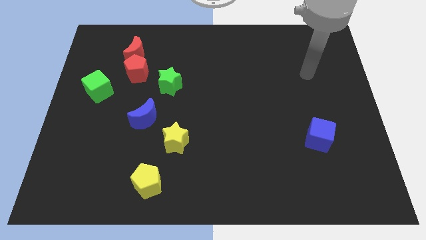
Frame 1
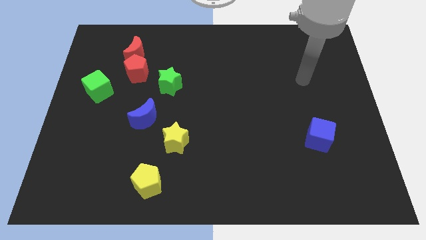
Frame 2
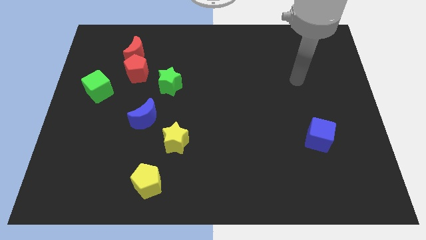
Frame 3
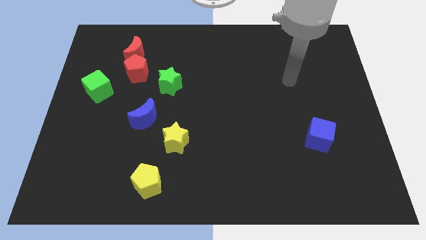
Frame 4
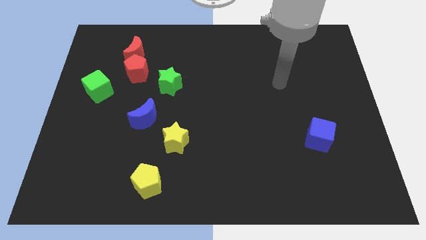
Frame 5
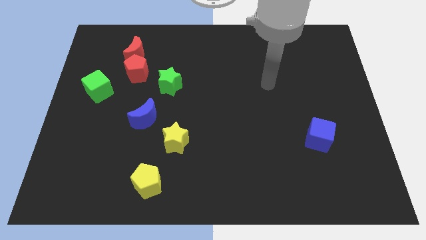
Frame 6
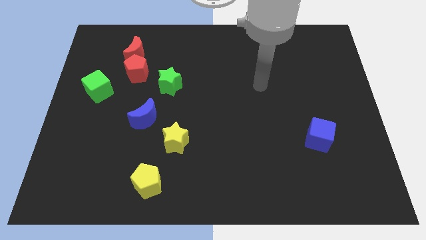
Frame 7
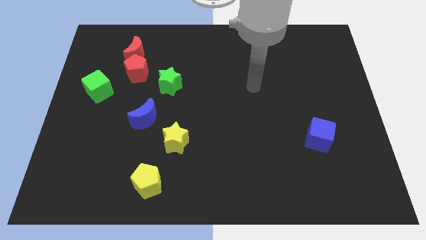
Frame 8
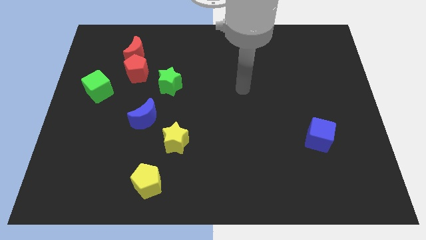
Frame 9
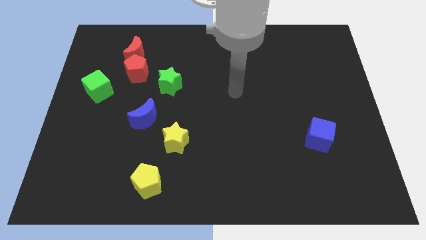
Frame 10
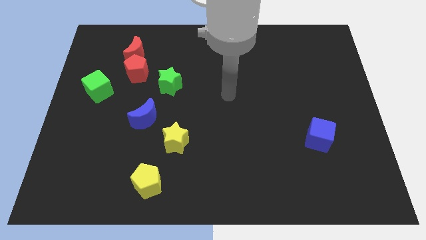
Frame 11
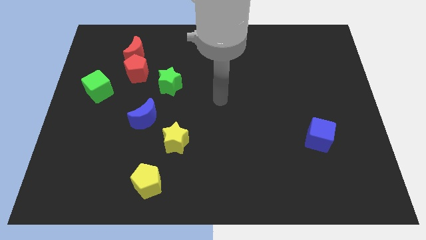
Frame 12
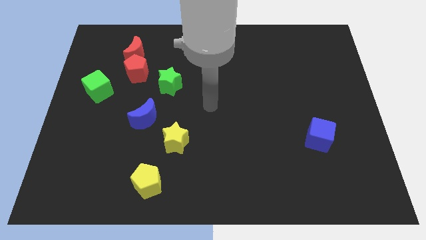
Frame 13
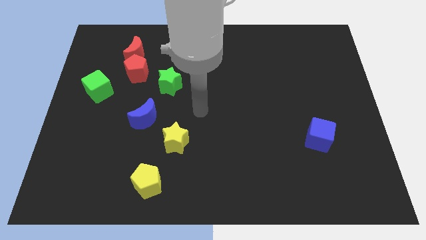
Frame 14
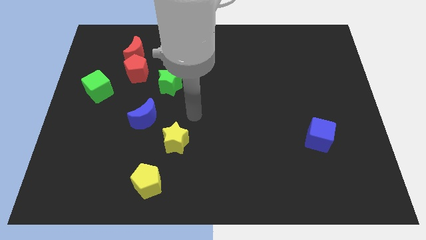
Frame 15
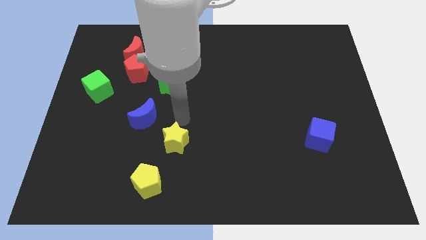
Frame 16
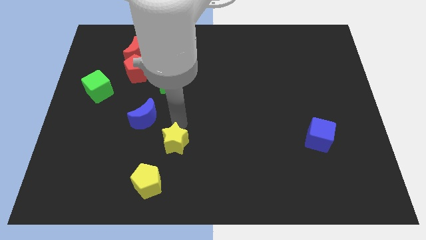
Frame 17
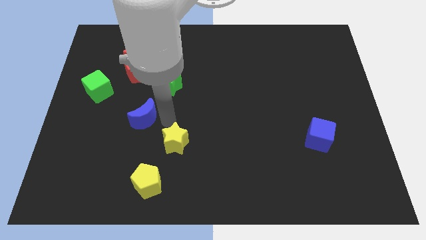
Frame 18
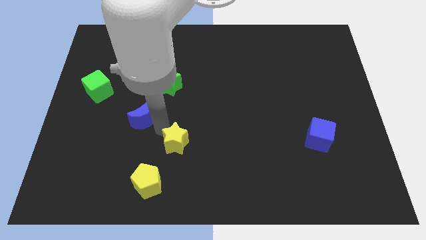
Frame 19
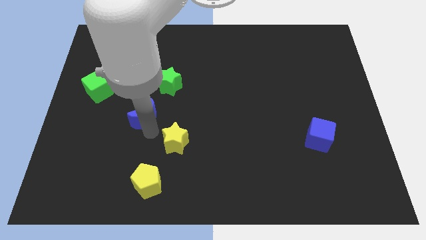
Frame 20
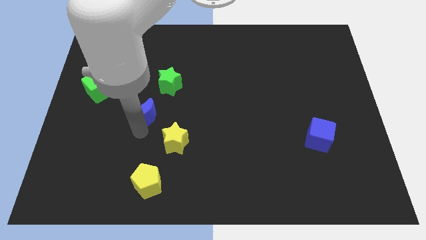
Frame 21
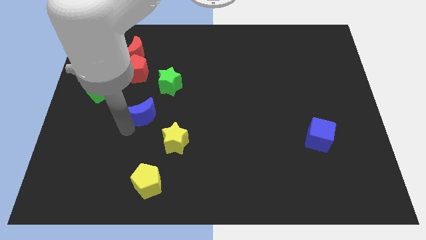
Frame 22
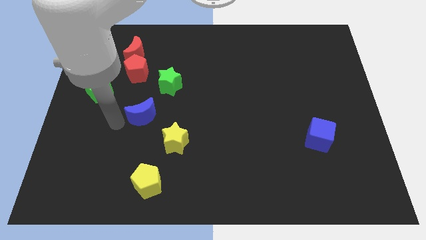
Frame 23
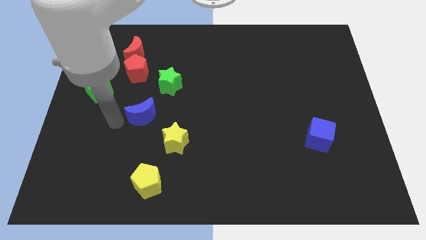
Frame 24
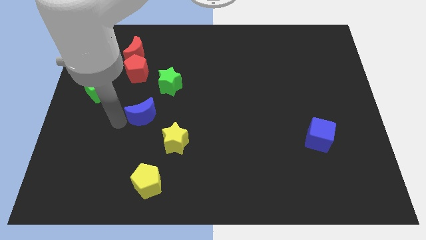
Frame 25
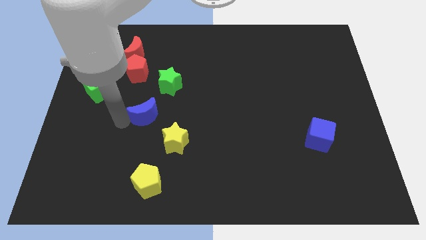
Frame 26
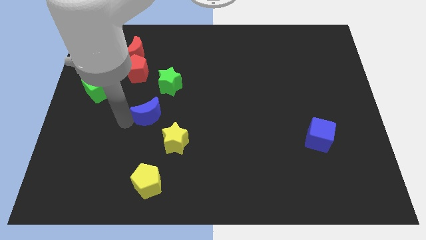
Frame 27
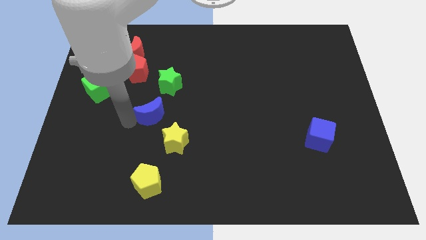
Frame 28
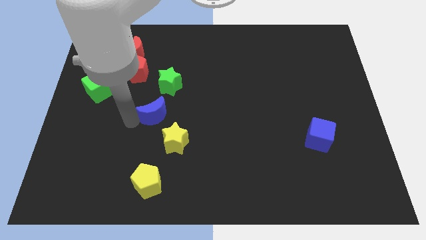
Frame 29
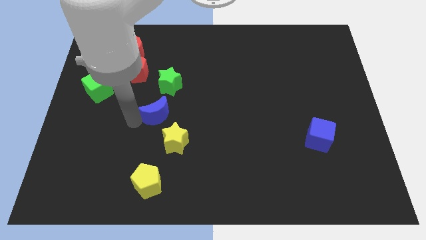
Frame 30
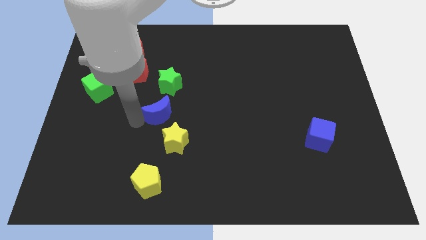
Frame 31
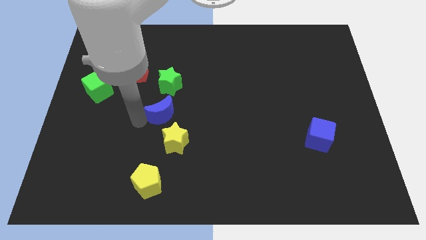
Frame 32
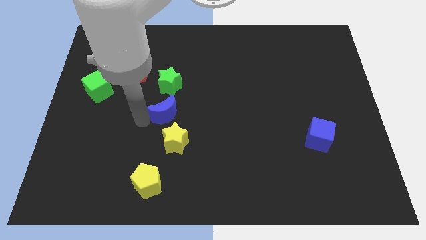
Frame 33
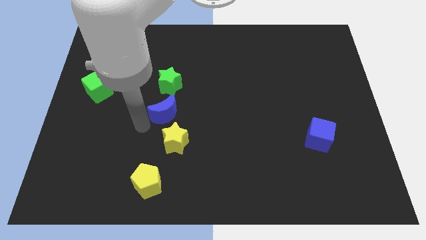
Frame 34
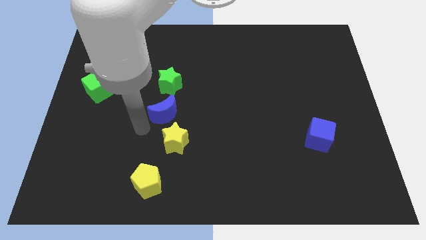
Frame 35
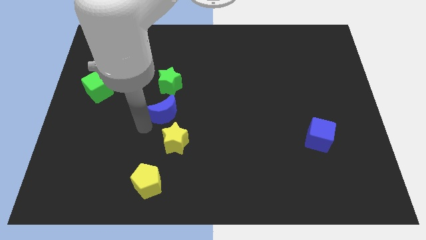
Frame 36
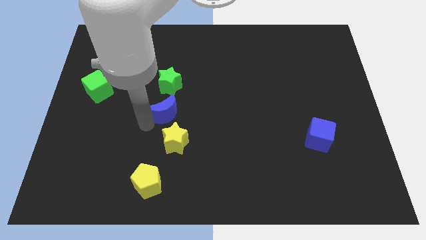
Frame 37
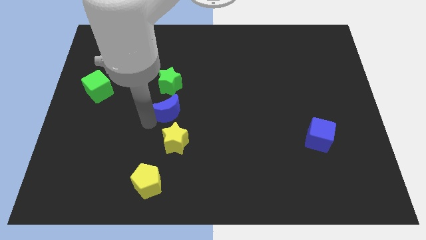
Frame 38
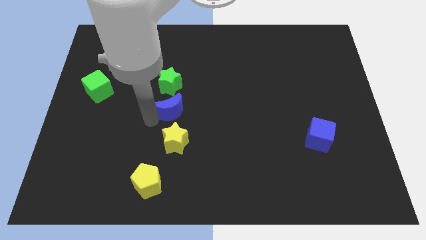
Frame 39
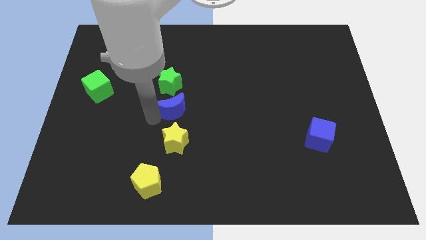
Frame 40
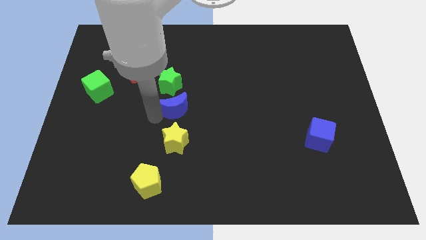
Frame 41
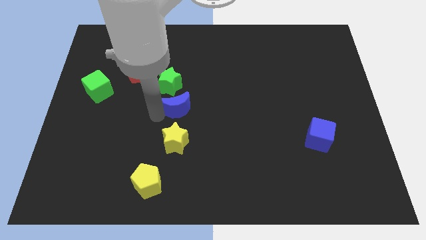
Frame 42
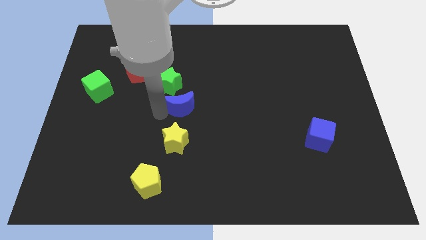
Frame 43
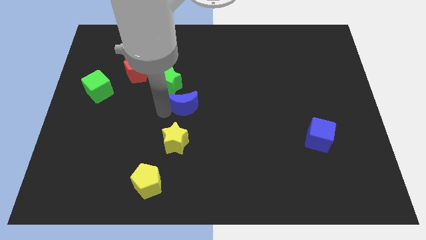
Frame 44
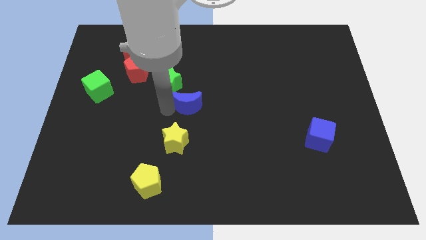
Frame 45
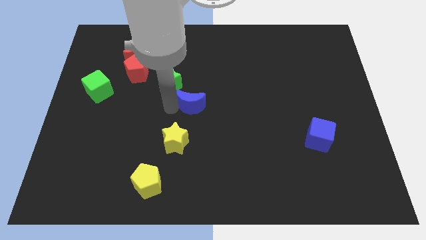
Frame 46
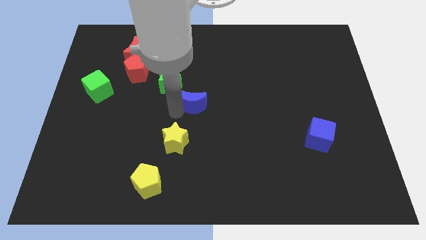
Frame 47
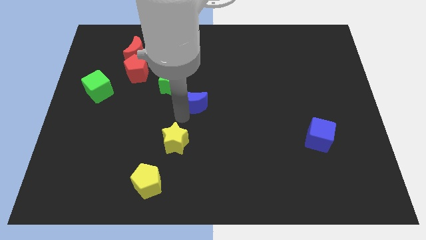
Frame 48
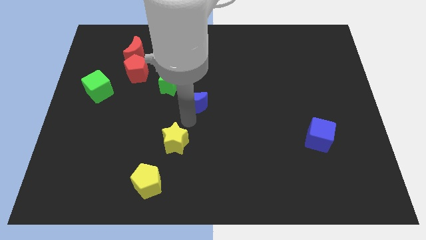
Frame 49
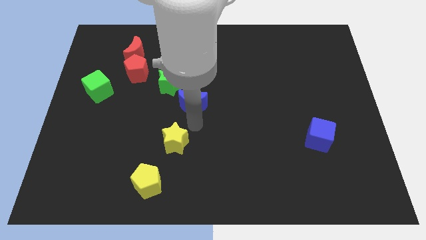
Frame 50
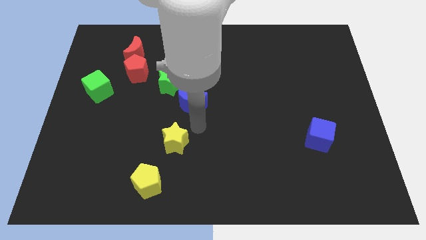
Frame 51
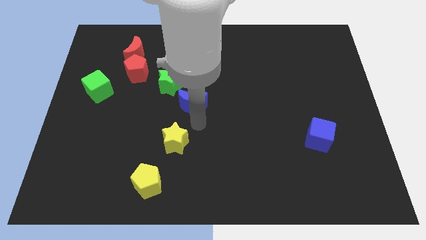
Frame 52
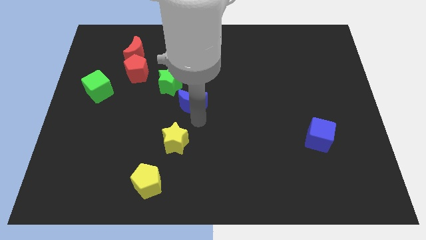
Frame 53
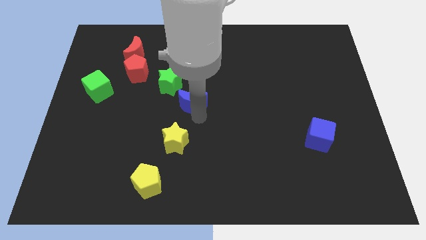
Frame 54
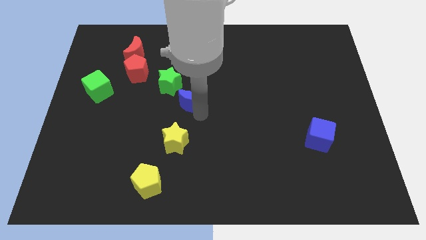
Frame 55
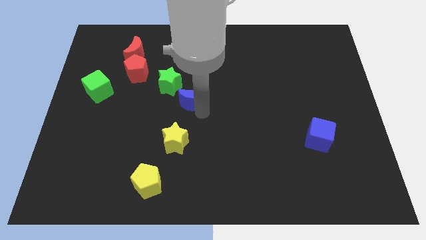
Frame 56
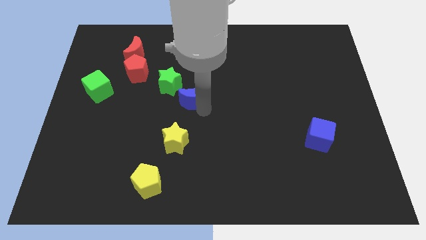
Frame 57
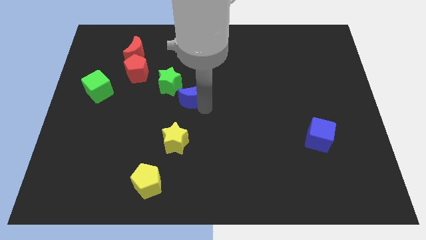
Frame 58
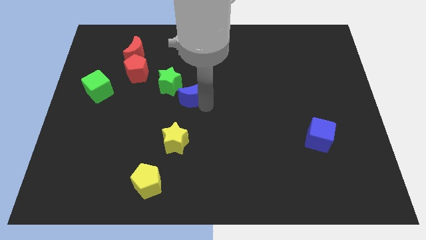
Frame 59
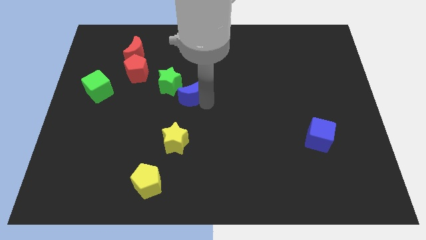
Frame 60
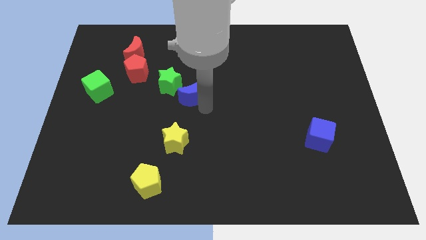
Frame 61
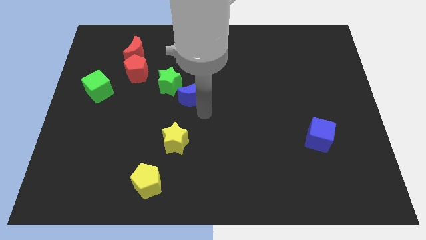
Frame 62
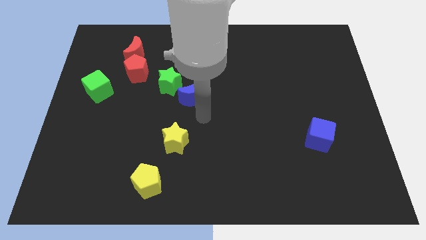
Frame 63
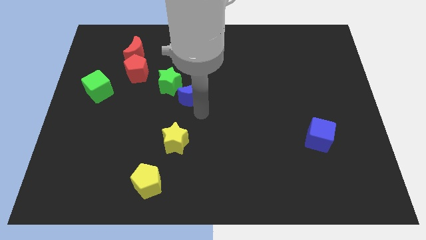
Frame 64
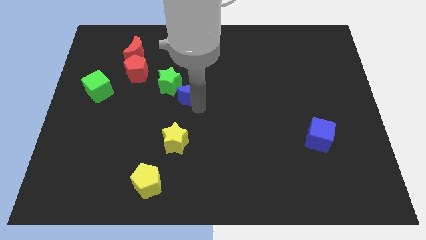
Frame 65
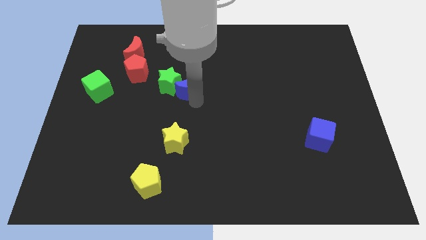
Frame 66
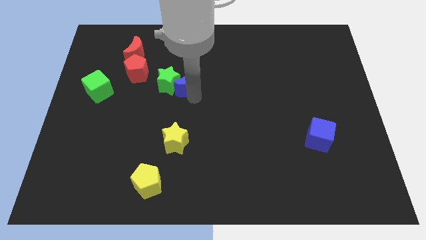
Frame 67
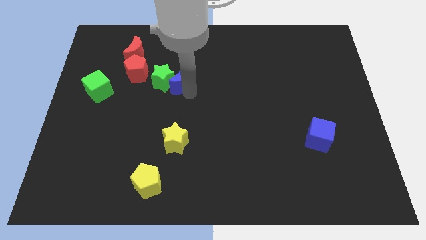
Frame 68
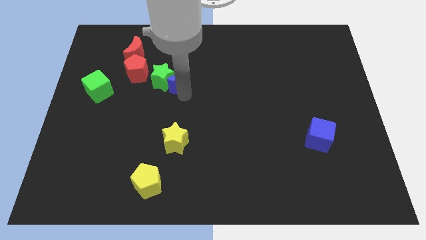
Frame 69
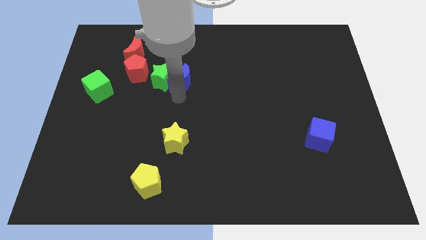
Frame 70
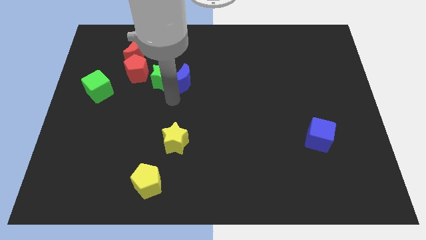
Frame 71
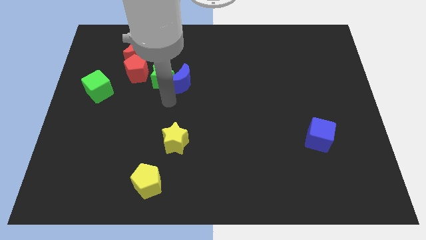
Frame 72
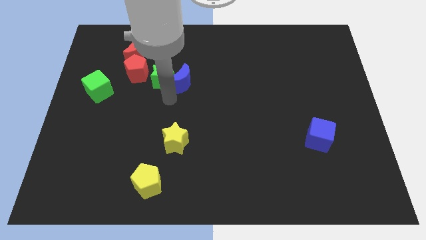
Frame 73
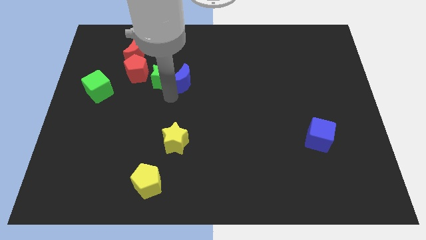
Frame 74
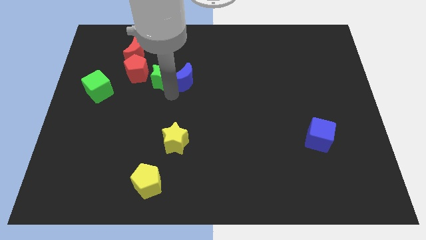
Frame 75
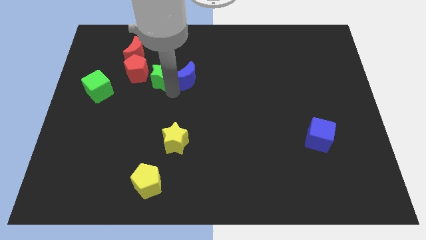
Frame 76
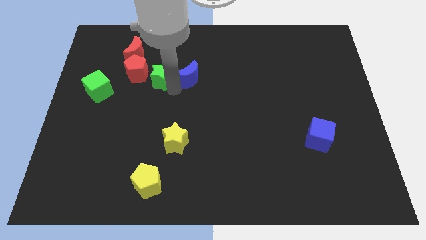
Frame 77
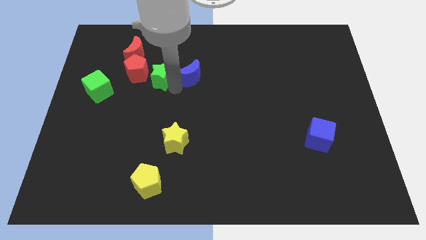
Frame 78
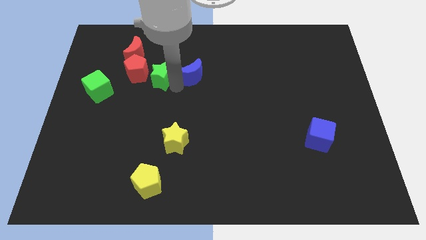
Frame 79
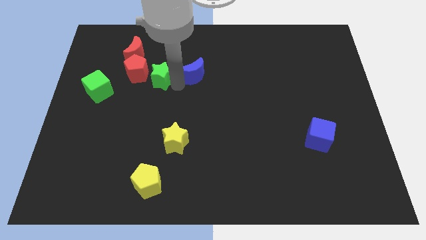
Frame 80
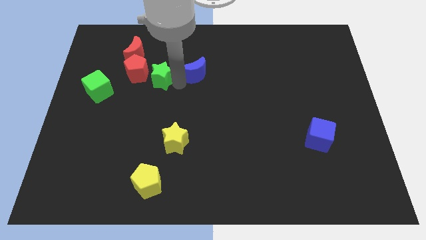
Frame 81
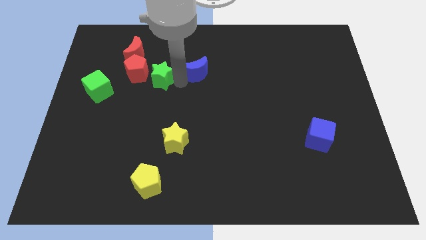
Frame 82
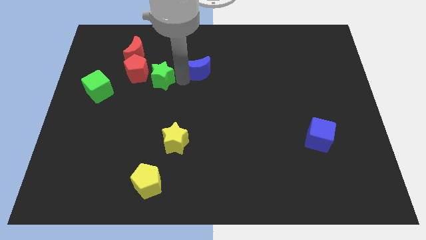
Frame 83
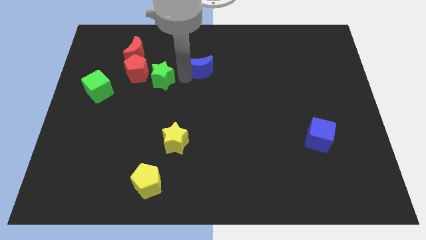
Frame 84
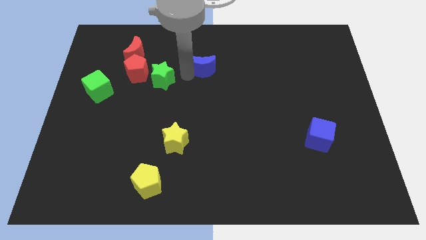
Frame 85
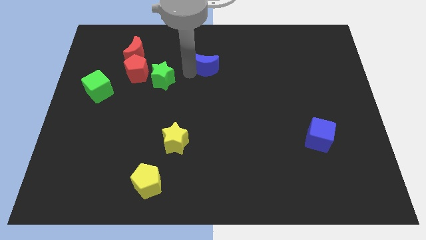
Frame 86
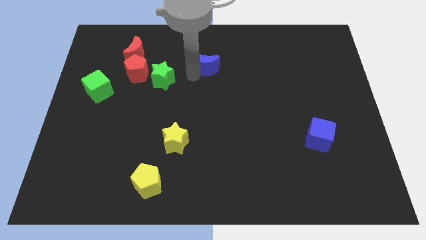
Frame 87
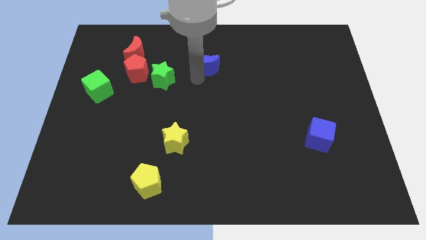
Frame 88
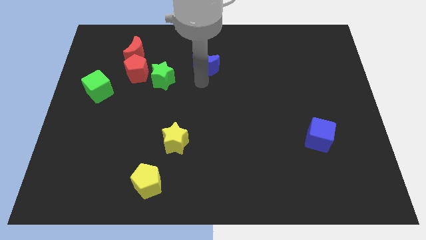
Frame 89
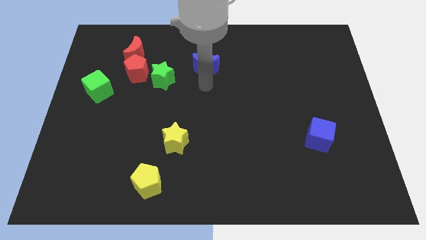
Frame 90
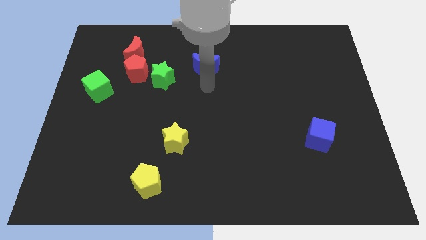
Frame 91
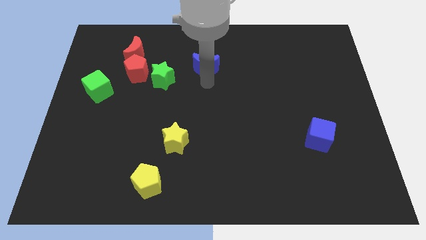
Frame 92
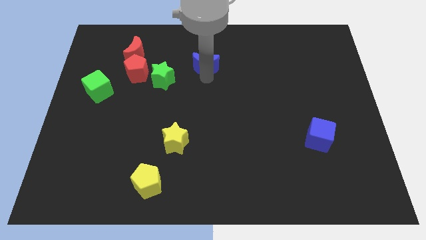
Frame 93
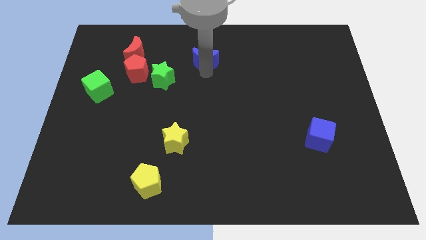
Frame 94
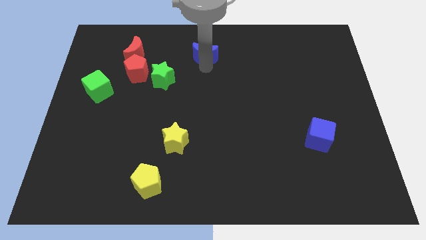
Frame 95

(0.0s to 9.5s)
move the blue moon to the towards your base
